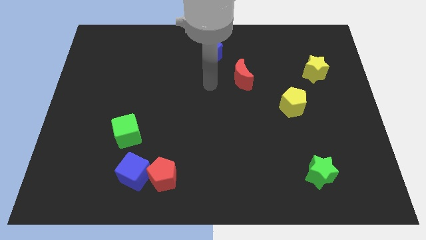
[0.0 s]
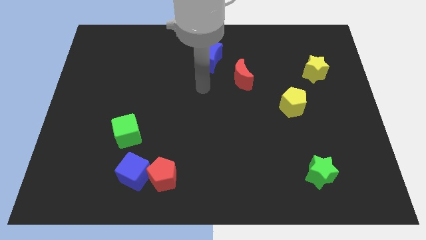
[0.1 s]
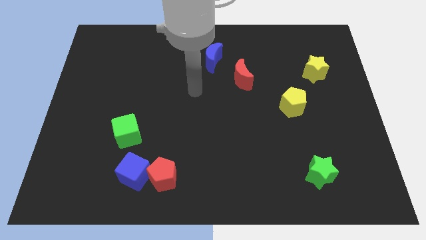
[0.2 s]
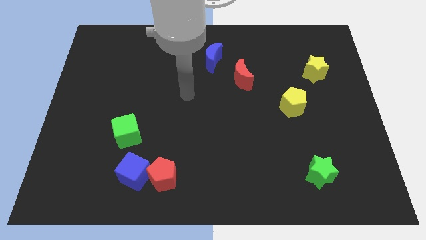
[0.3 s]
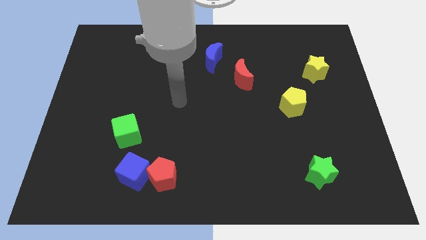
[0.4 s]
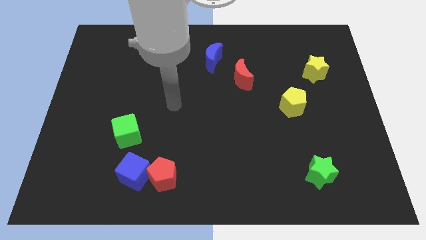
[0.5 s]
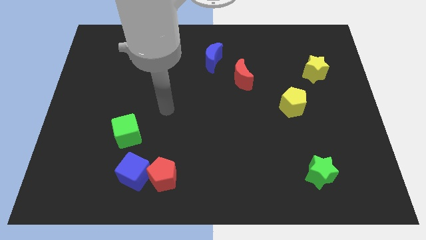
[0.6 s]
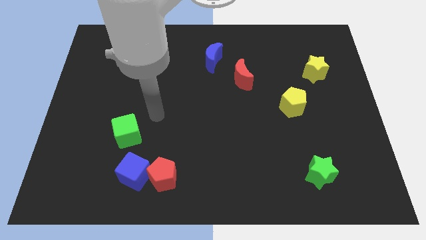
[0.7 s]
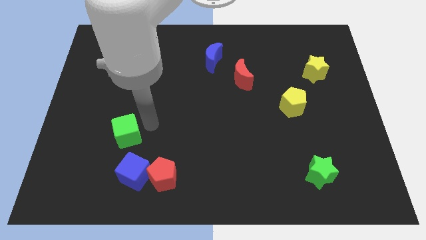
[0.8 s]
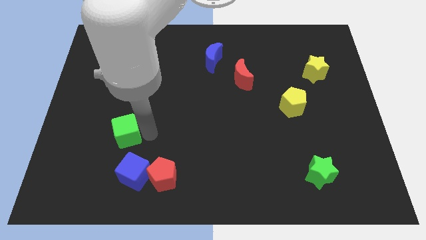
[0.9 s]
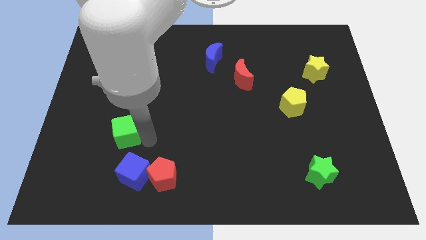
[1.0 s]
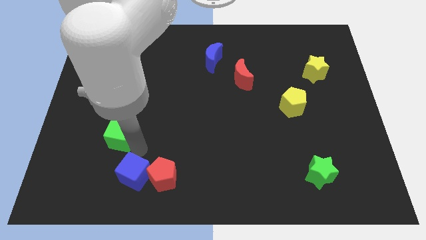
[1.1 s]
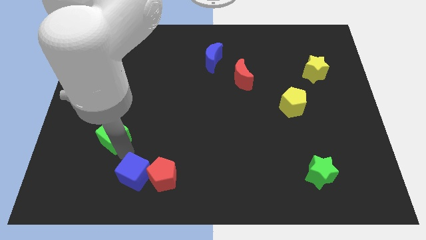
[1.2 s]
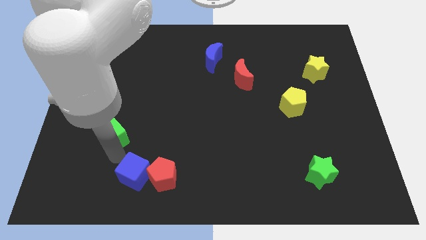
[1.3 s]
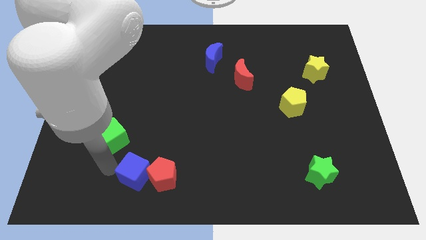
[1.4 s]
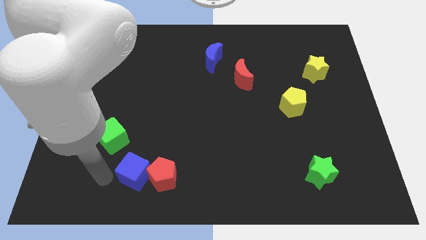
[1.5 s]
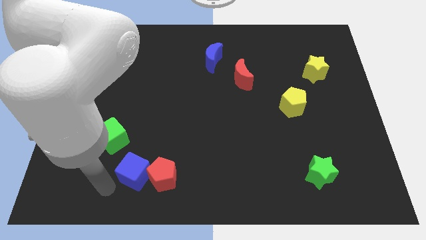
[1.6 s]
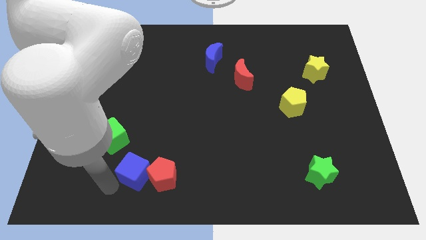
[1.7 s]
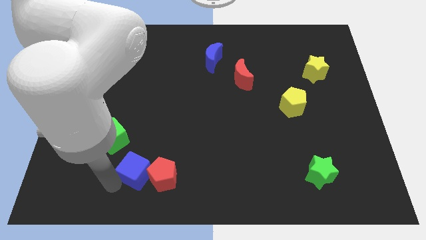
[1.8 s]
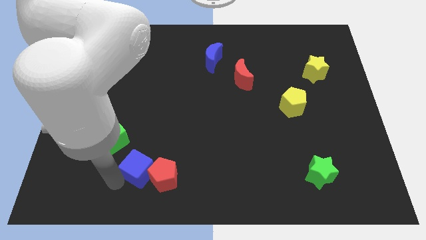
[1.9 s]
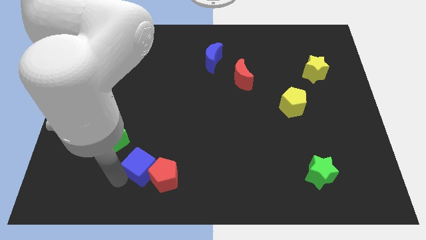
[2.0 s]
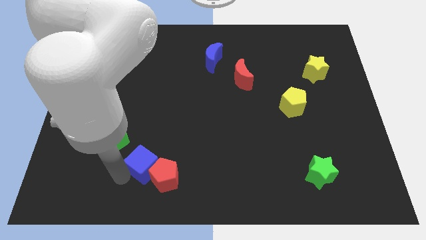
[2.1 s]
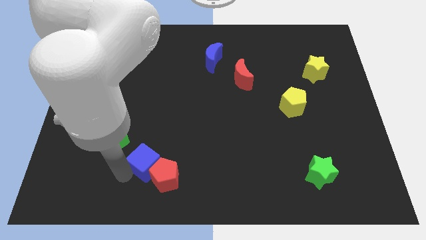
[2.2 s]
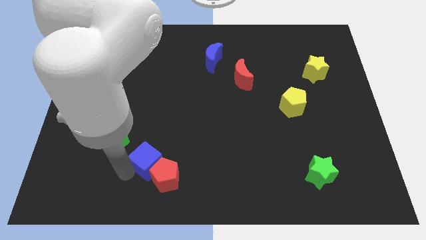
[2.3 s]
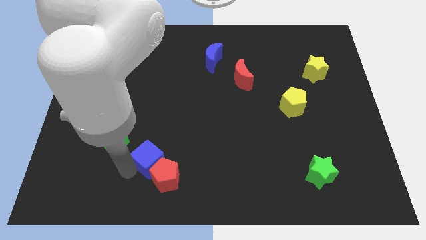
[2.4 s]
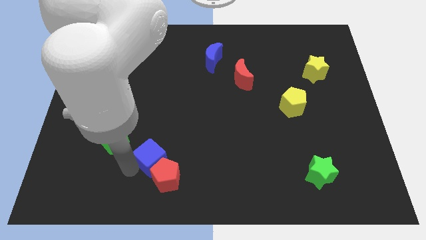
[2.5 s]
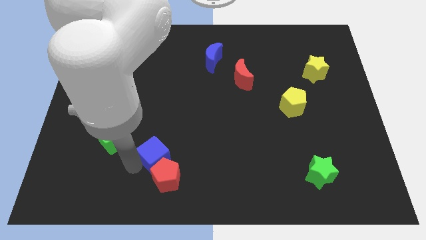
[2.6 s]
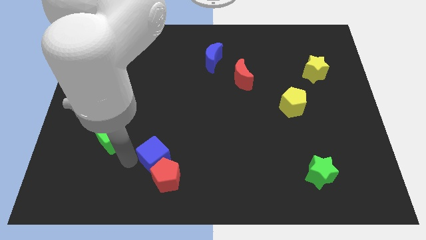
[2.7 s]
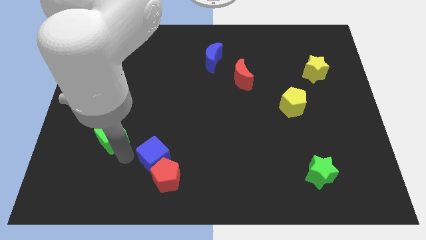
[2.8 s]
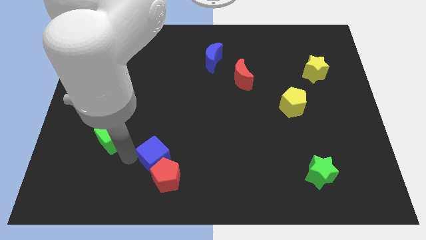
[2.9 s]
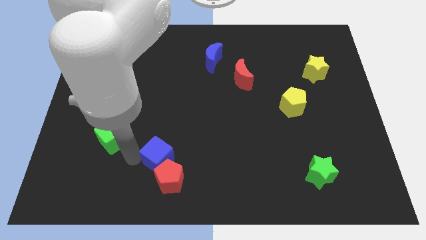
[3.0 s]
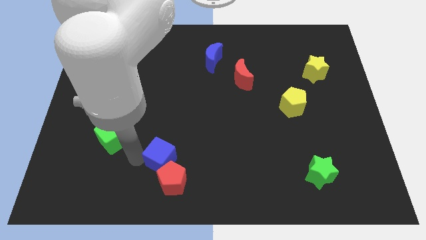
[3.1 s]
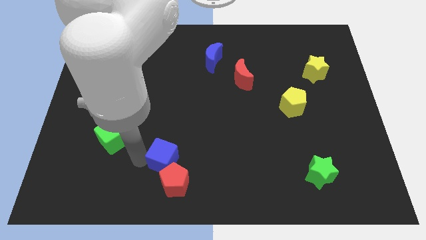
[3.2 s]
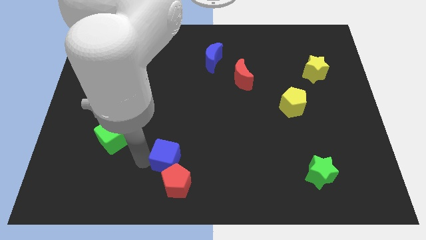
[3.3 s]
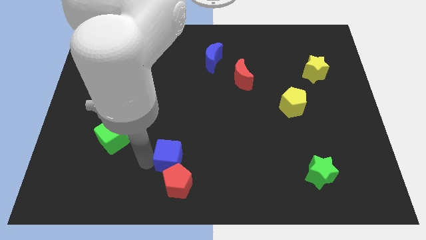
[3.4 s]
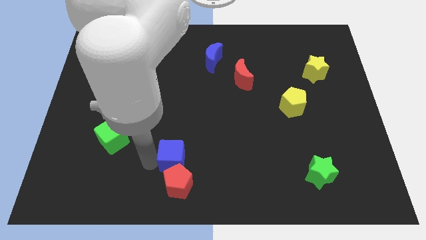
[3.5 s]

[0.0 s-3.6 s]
slide the blue cube to the right a bit

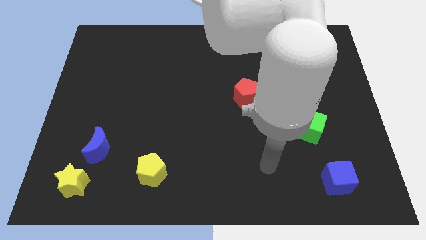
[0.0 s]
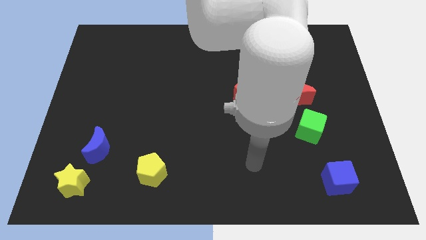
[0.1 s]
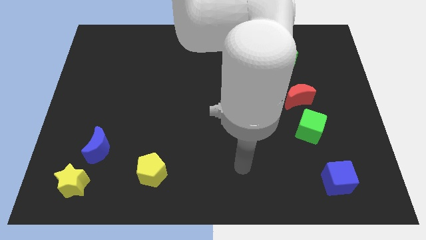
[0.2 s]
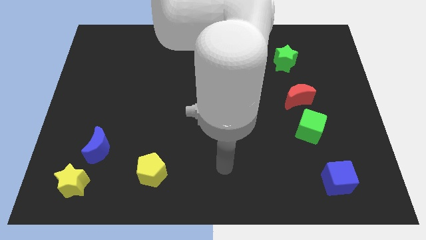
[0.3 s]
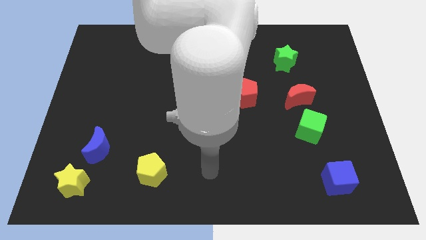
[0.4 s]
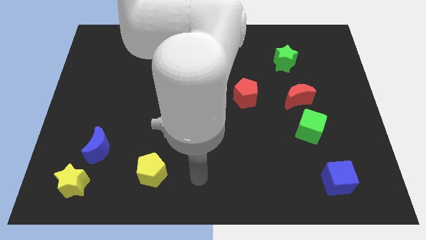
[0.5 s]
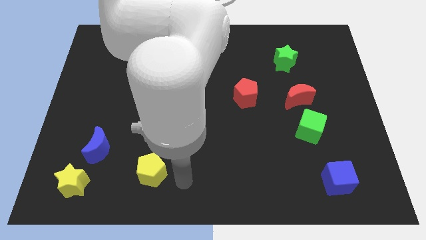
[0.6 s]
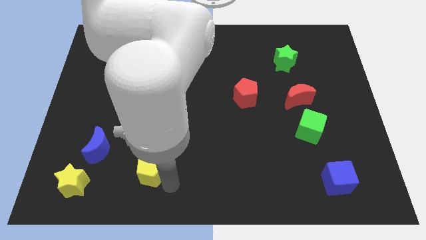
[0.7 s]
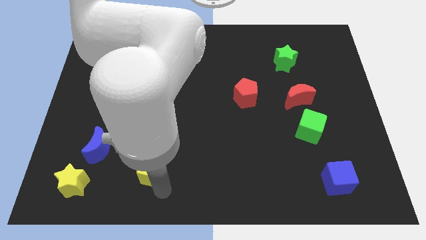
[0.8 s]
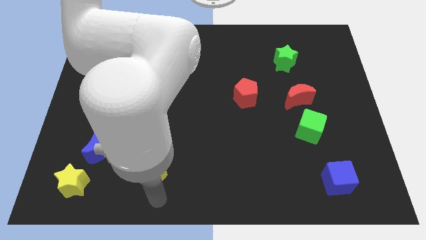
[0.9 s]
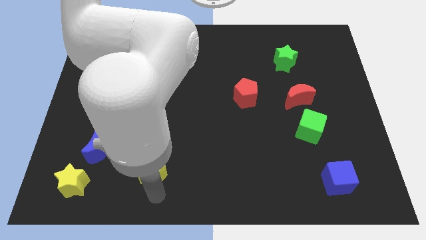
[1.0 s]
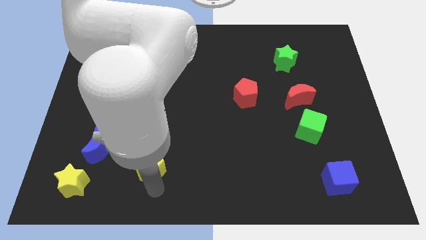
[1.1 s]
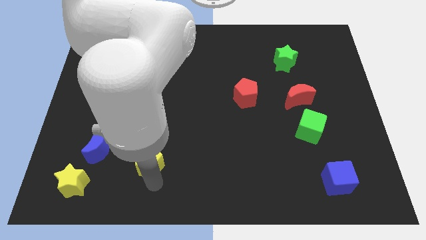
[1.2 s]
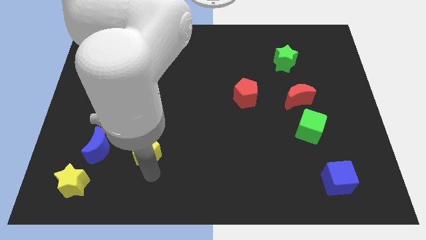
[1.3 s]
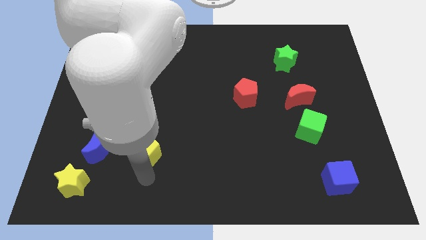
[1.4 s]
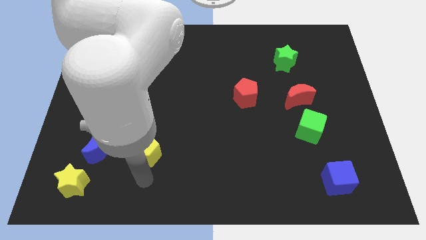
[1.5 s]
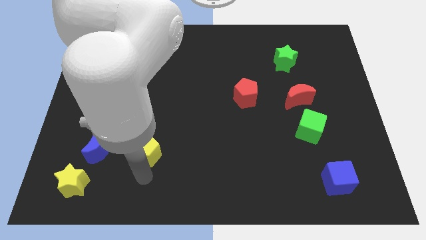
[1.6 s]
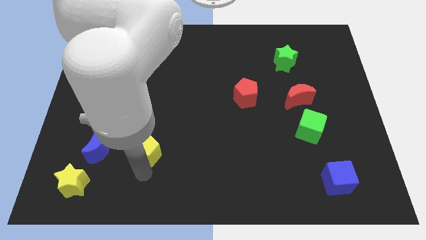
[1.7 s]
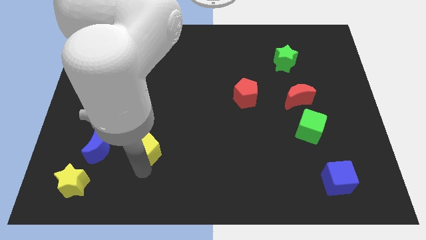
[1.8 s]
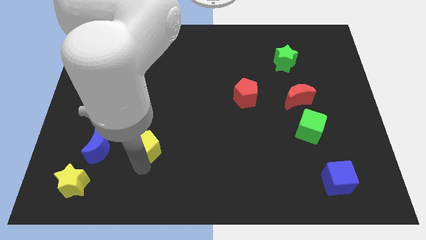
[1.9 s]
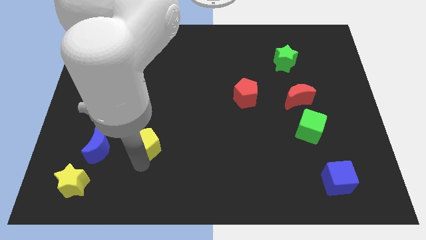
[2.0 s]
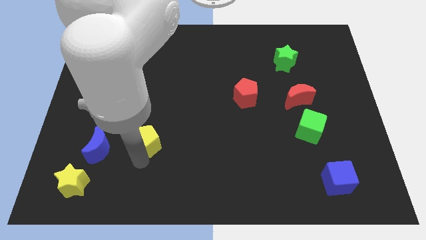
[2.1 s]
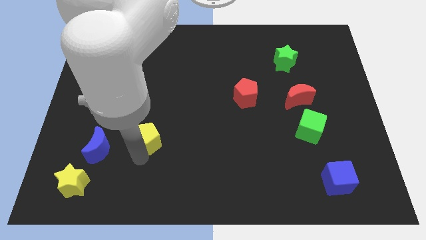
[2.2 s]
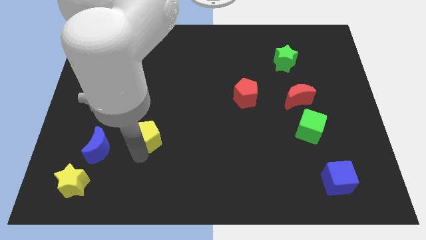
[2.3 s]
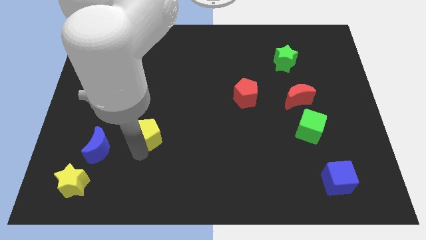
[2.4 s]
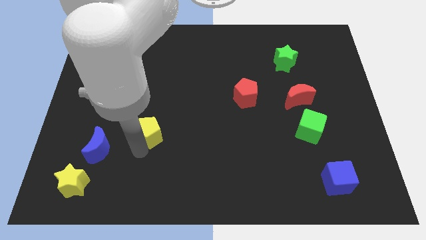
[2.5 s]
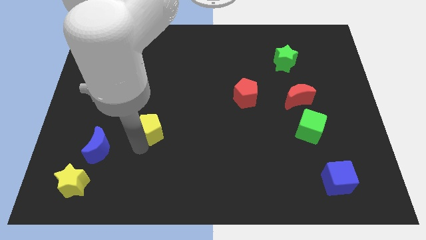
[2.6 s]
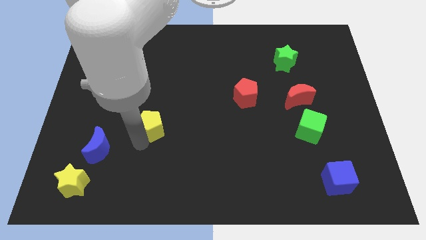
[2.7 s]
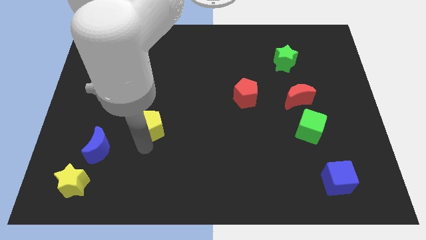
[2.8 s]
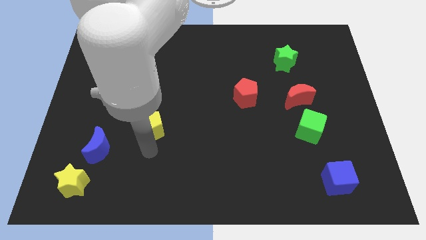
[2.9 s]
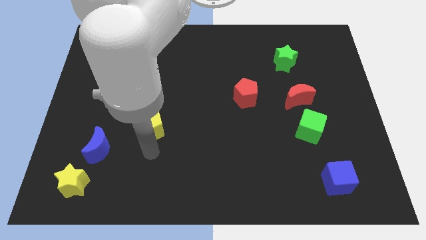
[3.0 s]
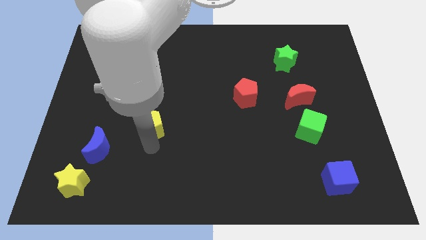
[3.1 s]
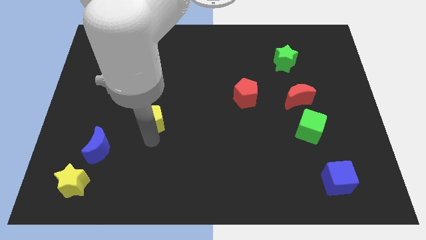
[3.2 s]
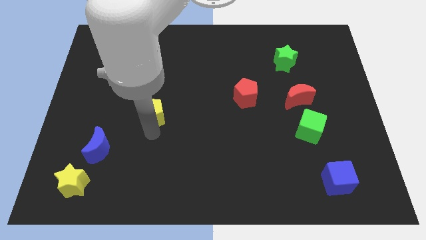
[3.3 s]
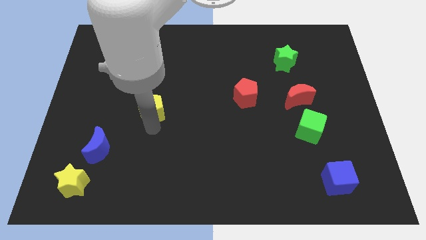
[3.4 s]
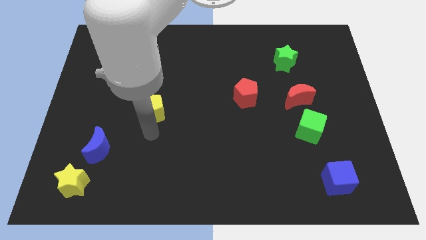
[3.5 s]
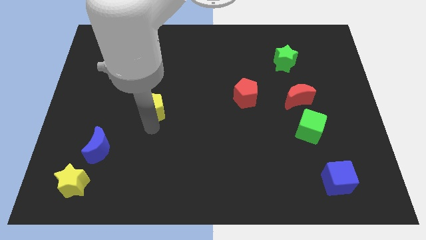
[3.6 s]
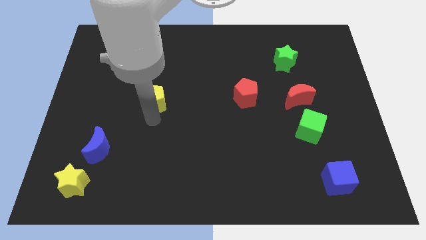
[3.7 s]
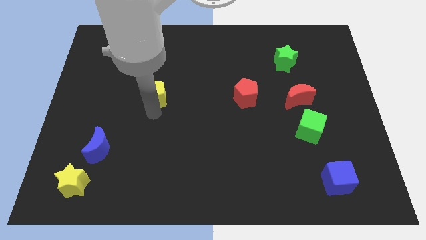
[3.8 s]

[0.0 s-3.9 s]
push the yellow pentagon upwards

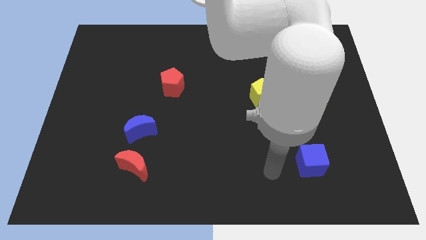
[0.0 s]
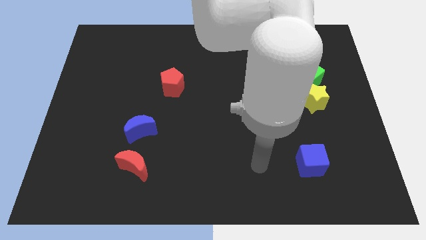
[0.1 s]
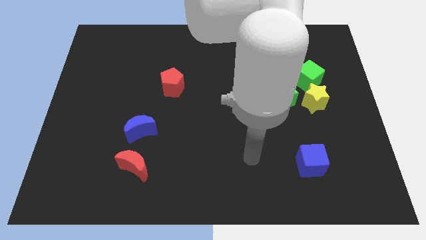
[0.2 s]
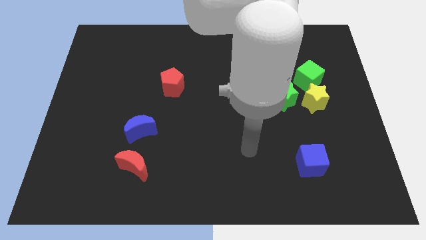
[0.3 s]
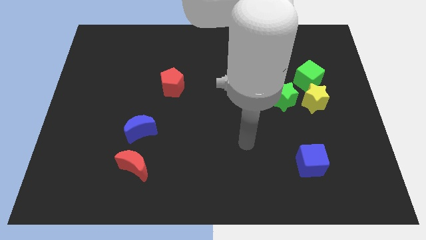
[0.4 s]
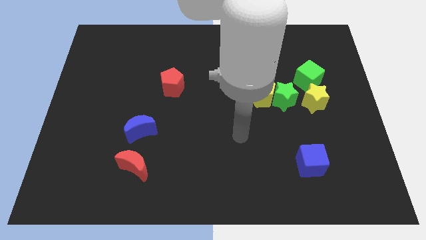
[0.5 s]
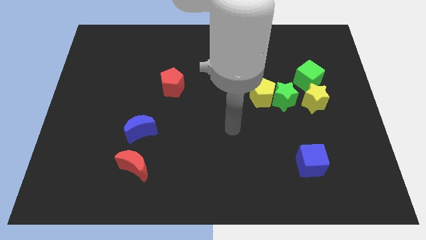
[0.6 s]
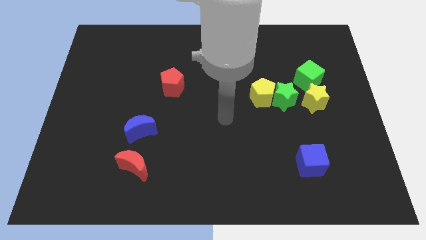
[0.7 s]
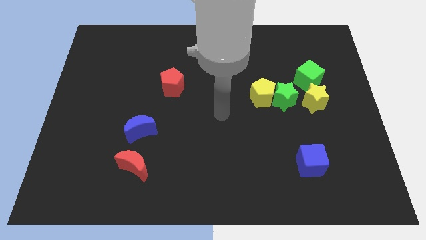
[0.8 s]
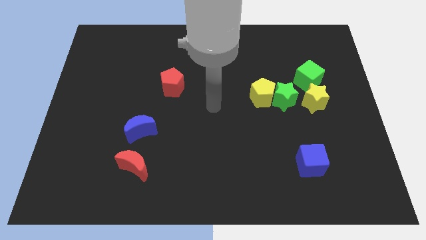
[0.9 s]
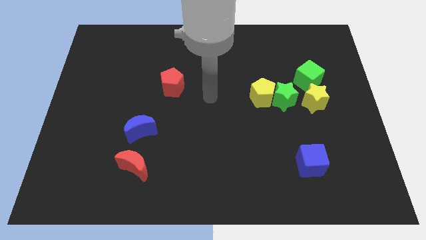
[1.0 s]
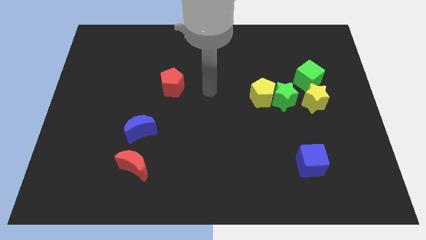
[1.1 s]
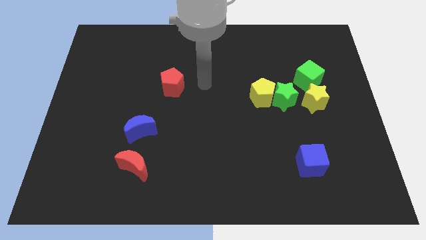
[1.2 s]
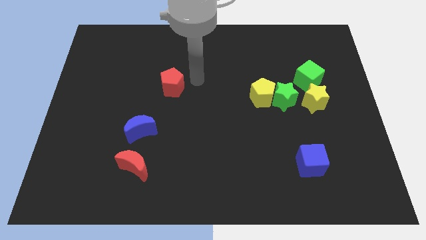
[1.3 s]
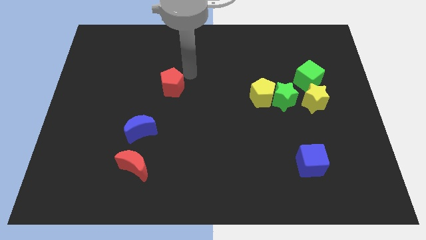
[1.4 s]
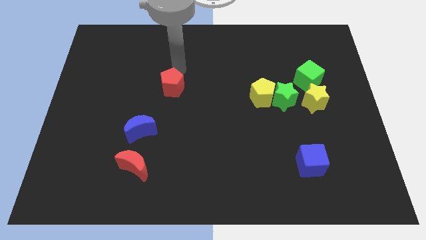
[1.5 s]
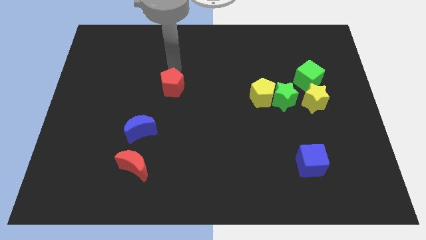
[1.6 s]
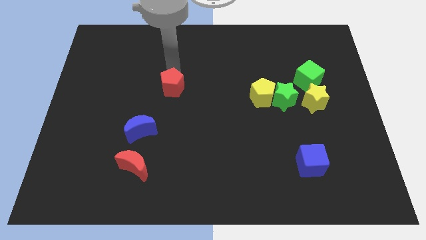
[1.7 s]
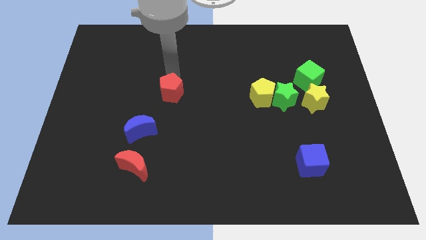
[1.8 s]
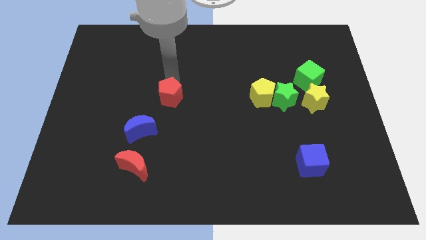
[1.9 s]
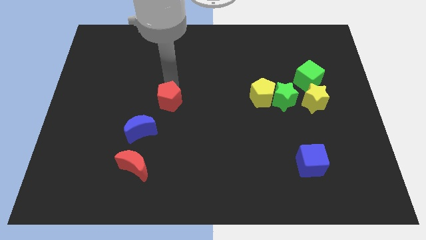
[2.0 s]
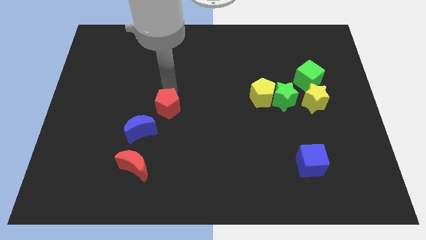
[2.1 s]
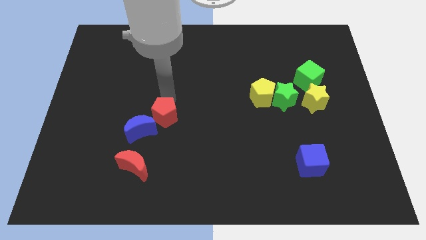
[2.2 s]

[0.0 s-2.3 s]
slide the red pentagon a little down
